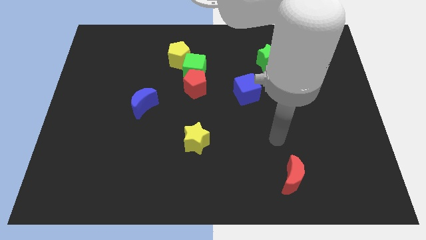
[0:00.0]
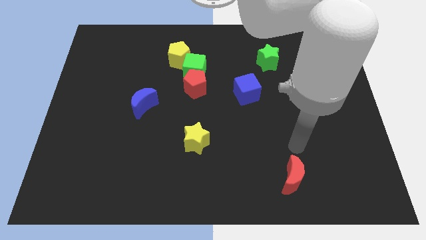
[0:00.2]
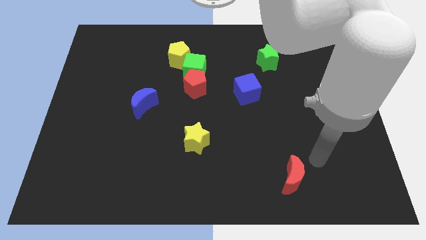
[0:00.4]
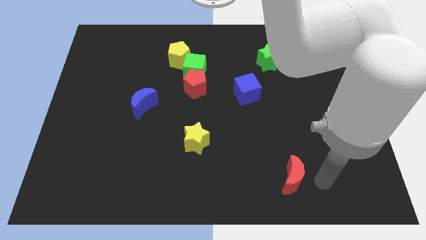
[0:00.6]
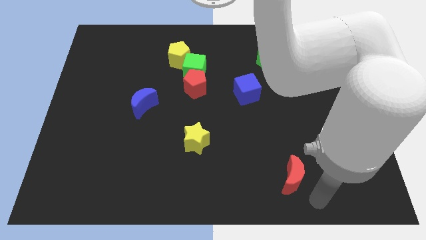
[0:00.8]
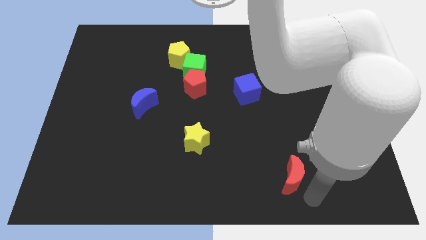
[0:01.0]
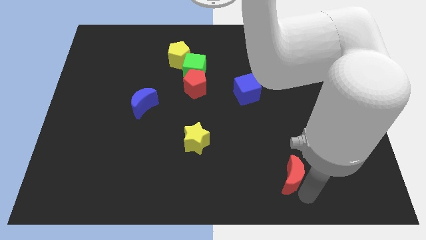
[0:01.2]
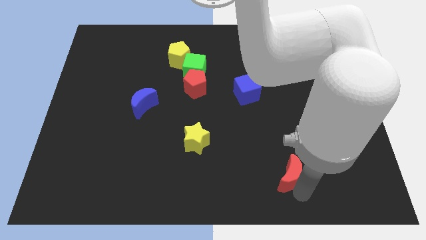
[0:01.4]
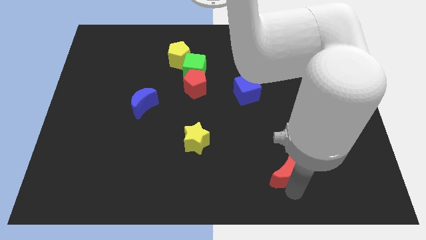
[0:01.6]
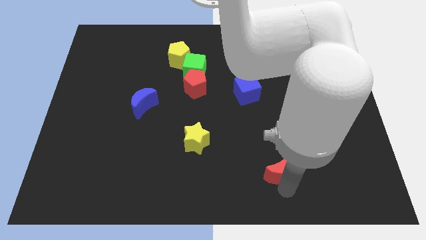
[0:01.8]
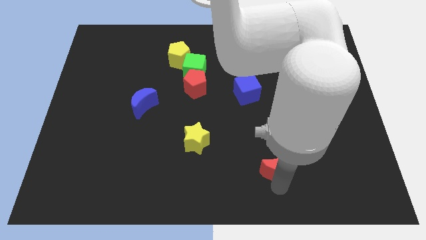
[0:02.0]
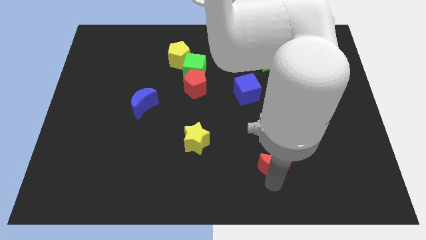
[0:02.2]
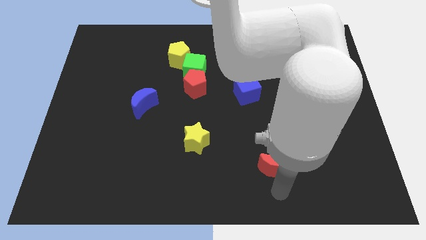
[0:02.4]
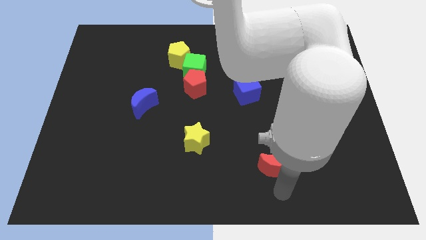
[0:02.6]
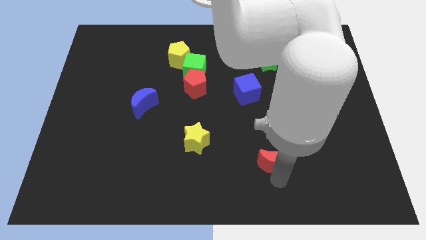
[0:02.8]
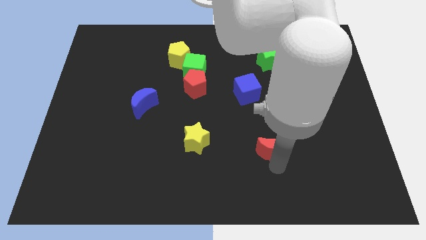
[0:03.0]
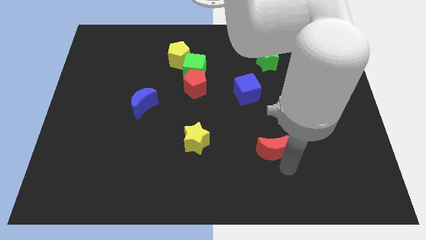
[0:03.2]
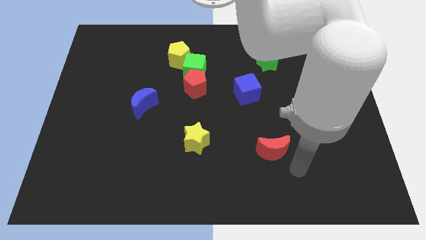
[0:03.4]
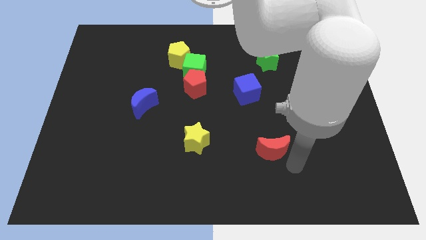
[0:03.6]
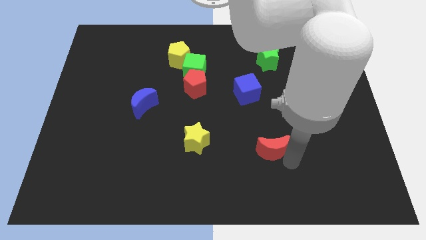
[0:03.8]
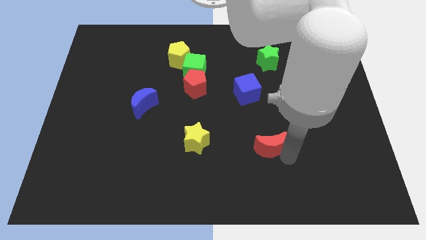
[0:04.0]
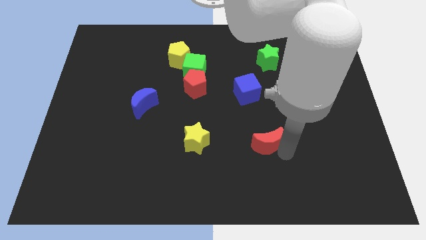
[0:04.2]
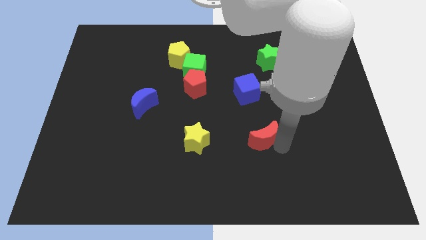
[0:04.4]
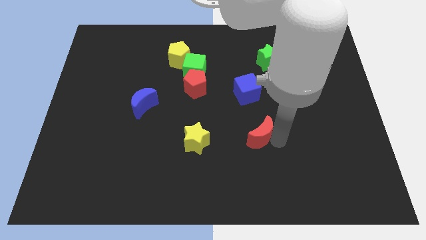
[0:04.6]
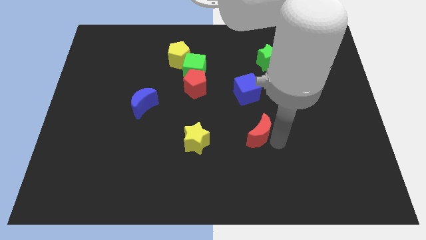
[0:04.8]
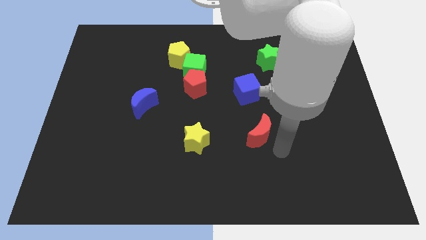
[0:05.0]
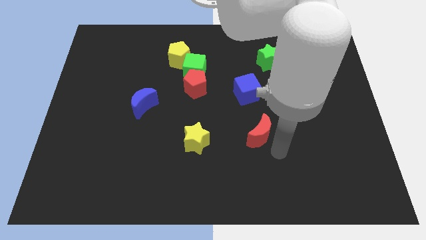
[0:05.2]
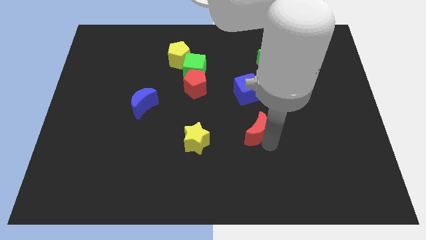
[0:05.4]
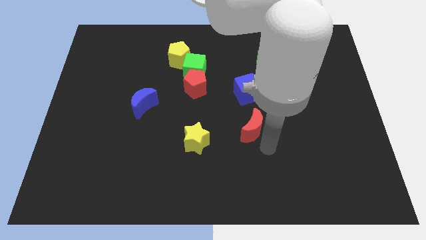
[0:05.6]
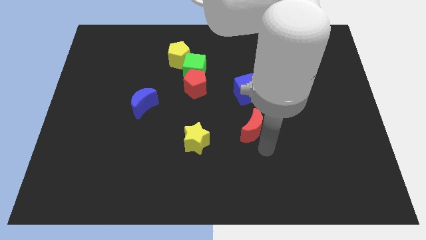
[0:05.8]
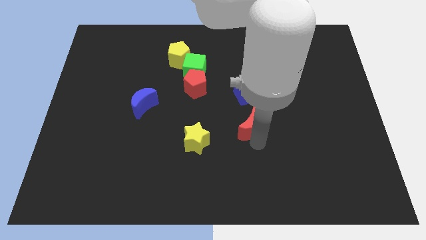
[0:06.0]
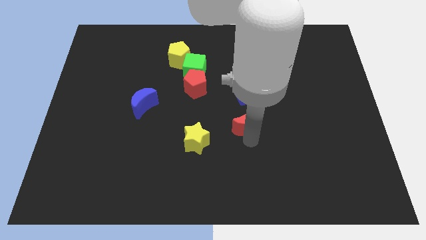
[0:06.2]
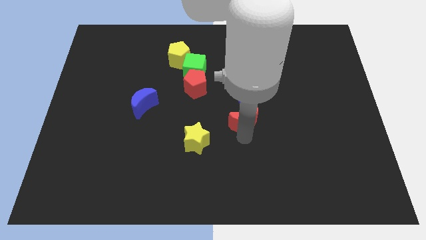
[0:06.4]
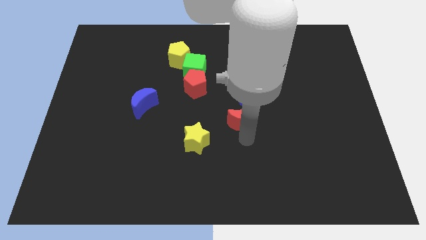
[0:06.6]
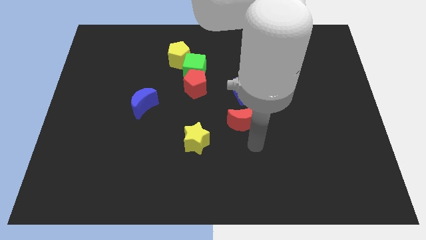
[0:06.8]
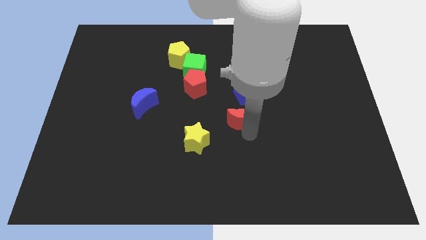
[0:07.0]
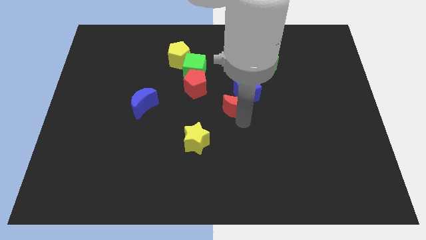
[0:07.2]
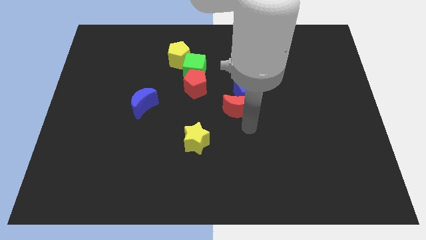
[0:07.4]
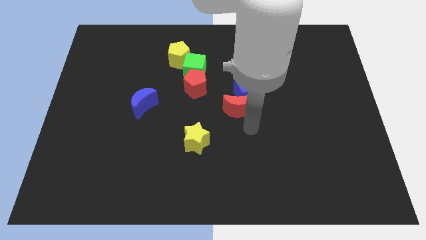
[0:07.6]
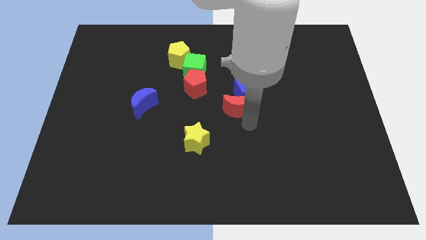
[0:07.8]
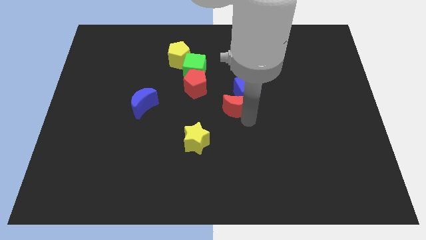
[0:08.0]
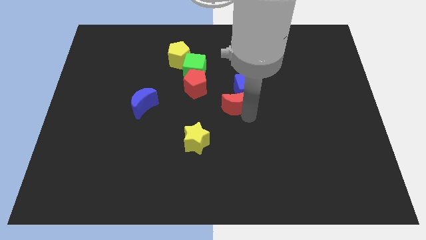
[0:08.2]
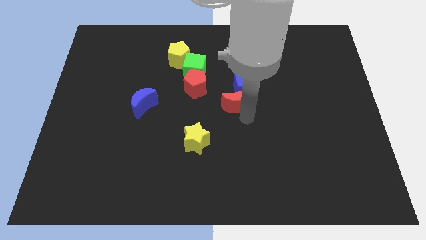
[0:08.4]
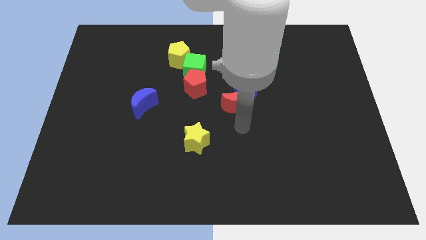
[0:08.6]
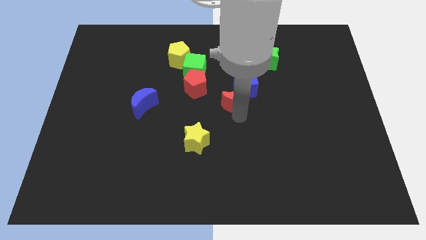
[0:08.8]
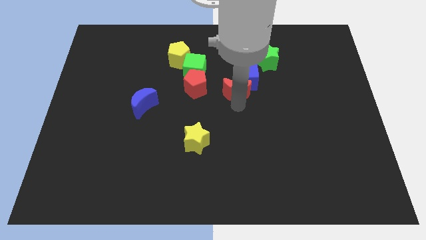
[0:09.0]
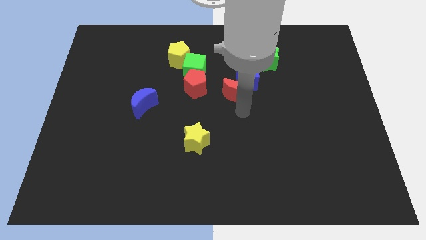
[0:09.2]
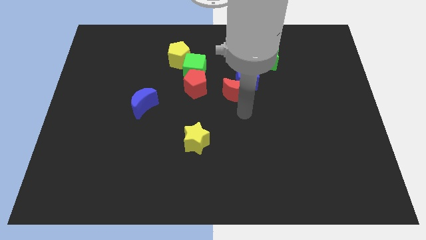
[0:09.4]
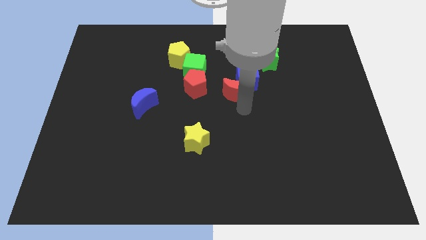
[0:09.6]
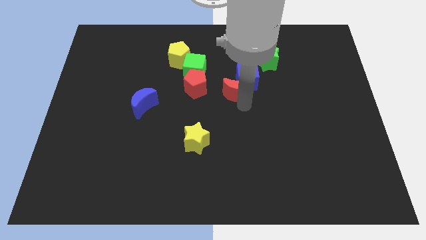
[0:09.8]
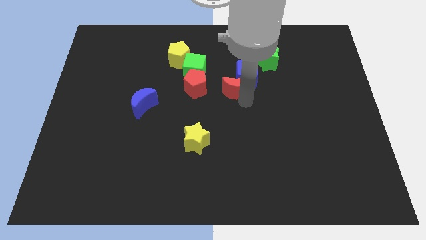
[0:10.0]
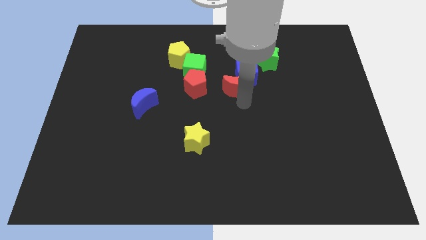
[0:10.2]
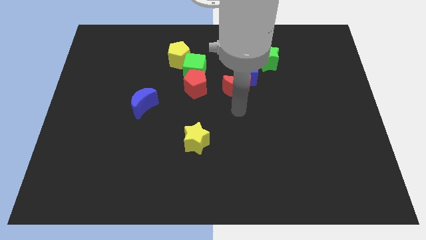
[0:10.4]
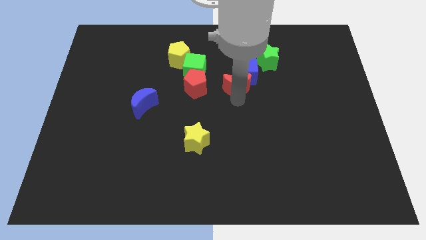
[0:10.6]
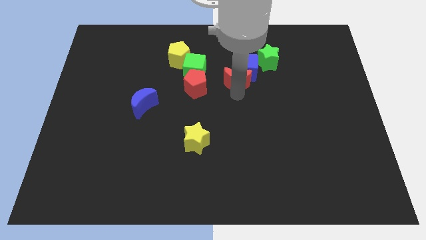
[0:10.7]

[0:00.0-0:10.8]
slide the red moon right of the green cube

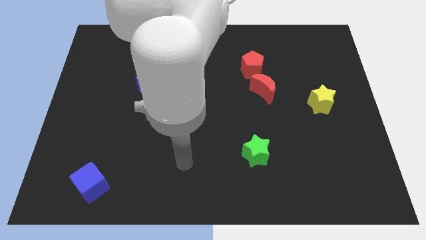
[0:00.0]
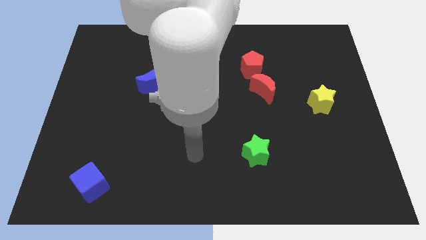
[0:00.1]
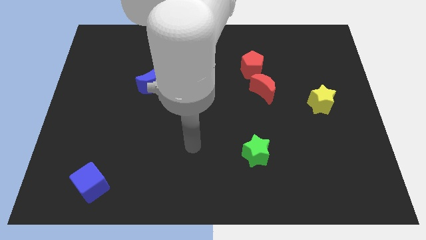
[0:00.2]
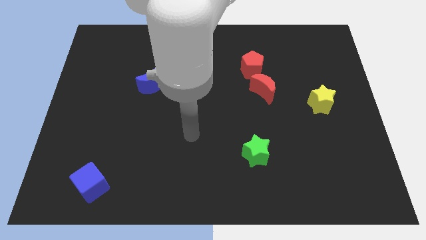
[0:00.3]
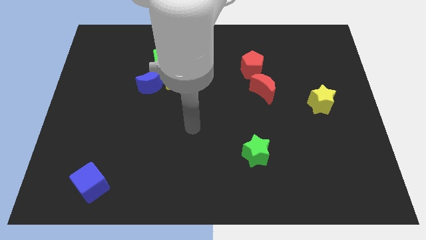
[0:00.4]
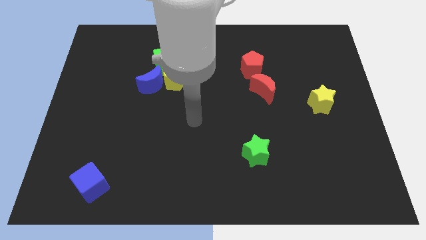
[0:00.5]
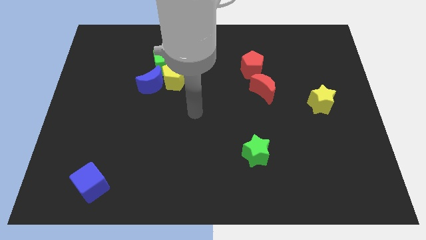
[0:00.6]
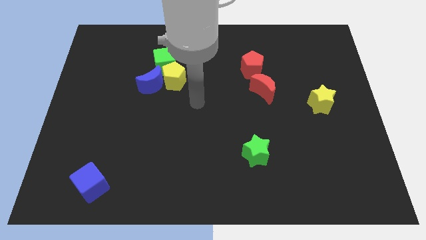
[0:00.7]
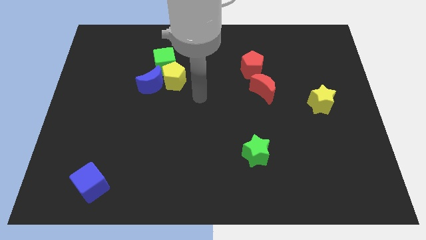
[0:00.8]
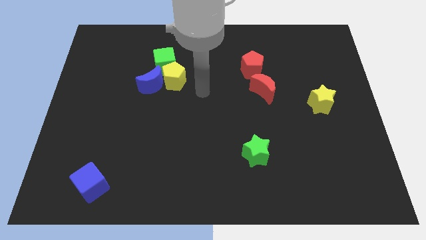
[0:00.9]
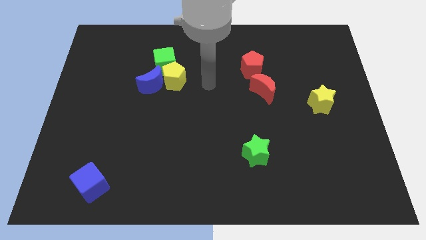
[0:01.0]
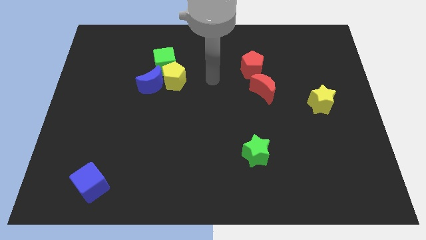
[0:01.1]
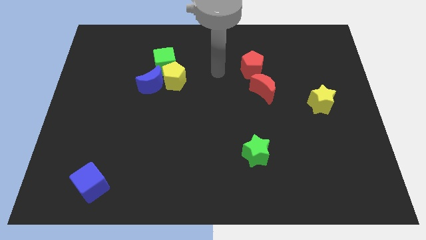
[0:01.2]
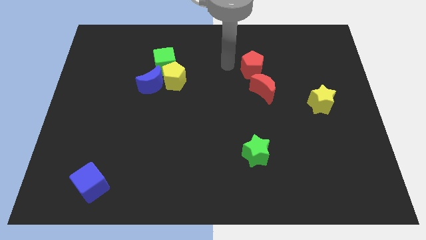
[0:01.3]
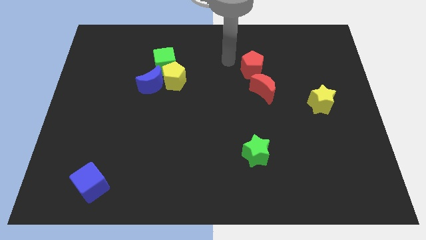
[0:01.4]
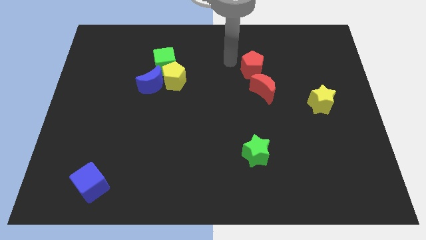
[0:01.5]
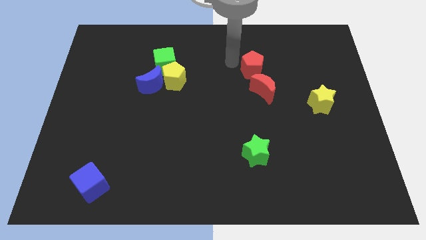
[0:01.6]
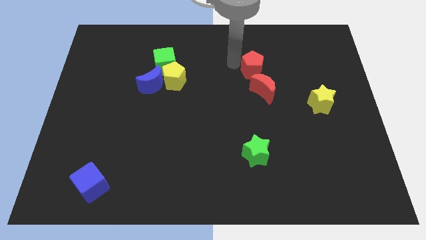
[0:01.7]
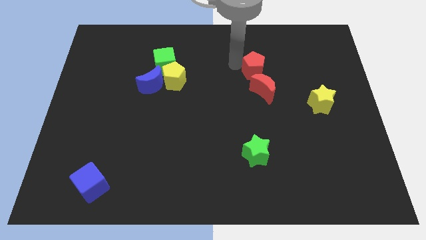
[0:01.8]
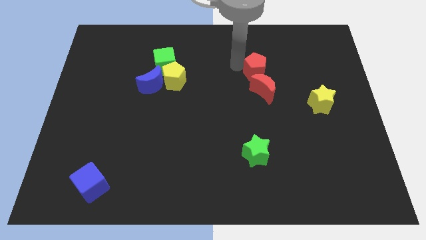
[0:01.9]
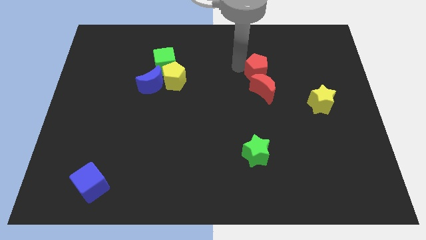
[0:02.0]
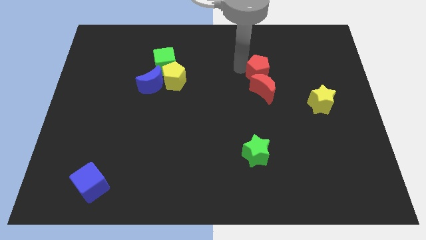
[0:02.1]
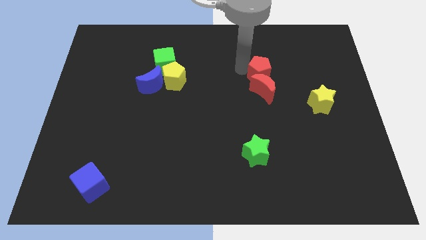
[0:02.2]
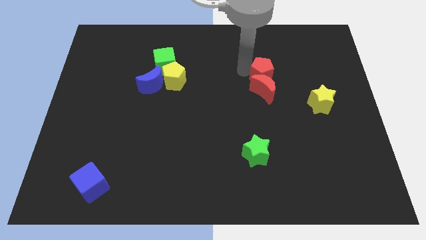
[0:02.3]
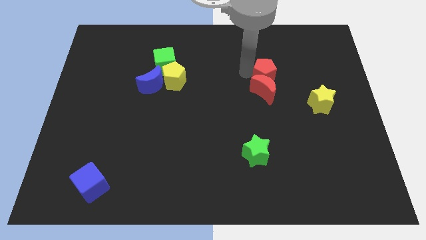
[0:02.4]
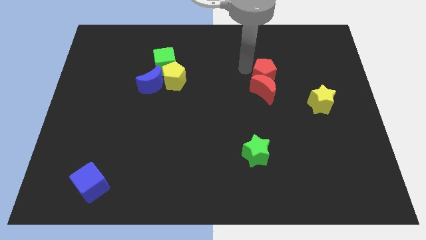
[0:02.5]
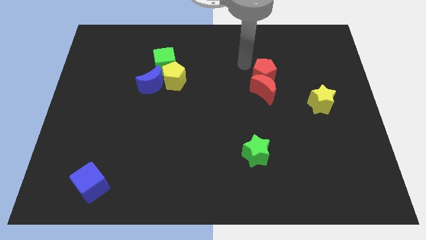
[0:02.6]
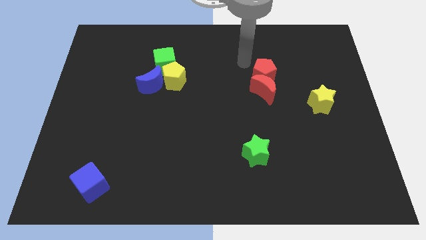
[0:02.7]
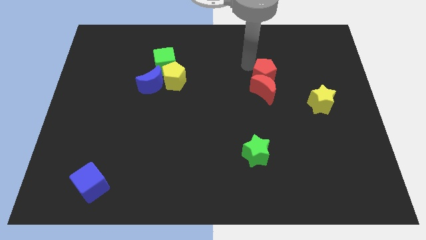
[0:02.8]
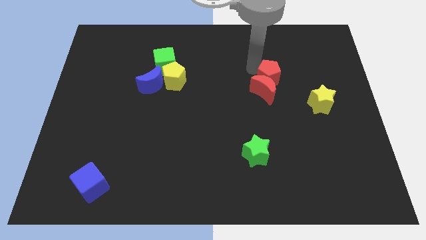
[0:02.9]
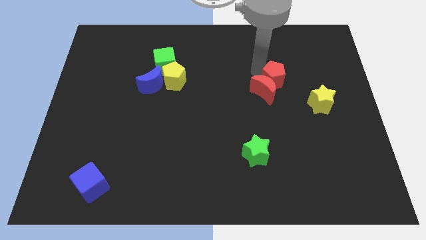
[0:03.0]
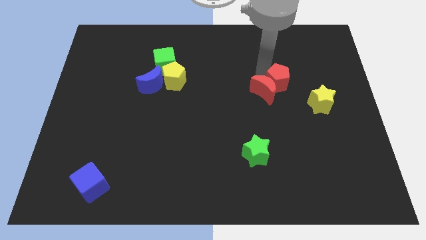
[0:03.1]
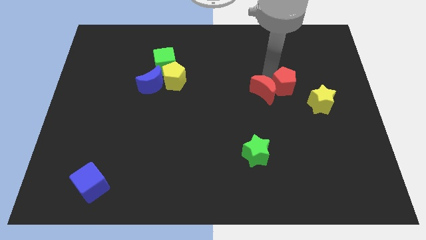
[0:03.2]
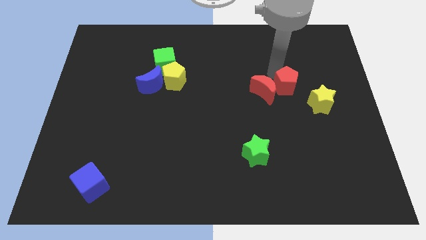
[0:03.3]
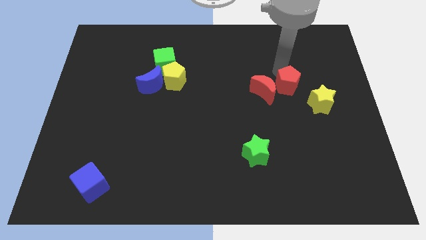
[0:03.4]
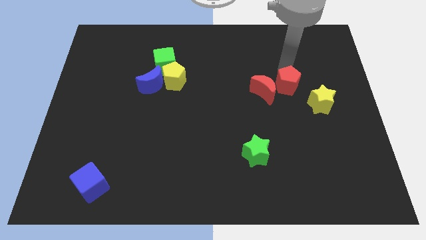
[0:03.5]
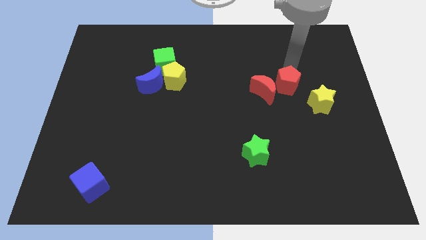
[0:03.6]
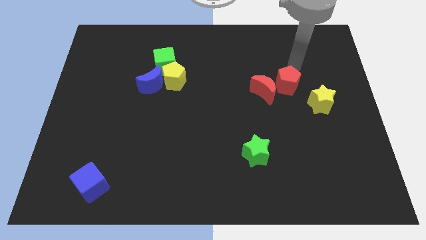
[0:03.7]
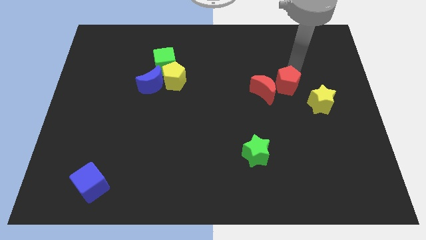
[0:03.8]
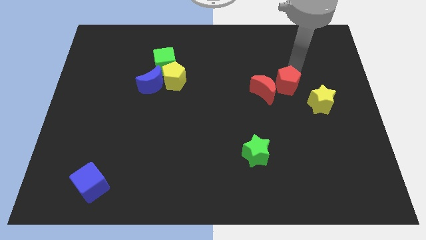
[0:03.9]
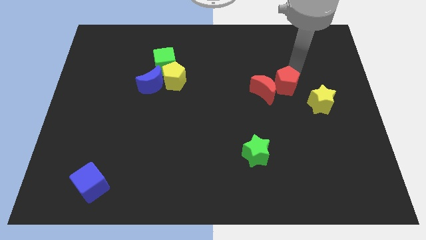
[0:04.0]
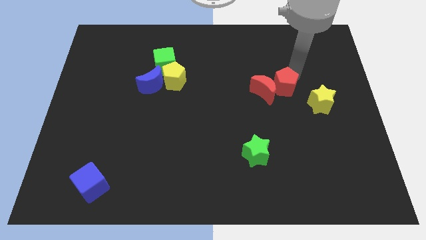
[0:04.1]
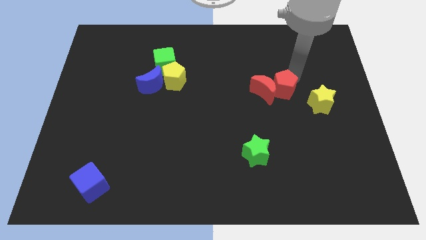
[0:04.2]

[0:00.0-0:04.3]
put the red pentagon just left of the yellow star
